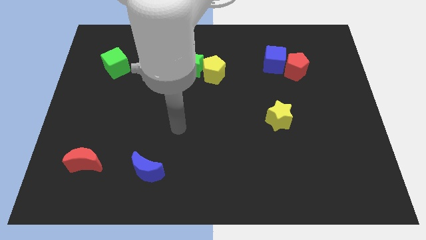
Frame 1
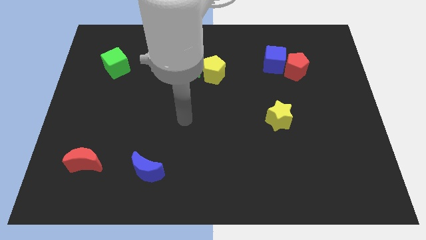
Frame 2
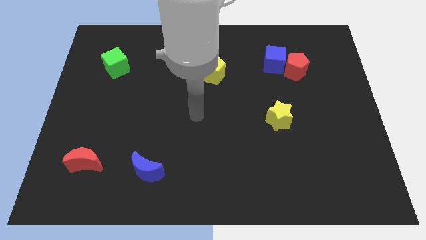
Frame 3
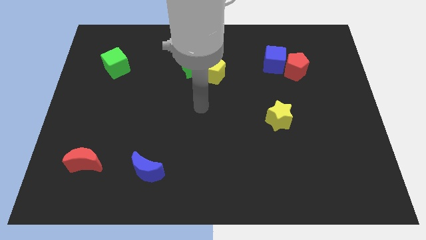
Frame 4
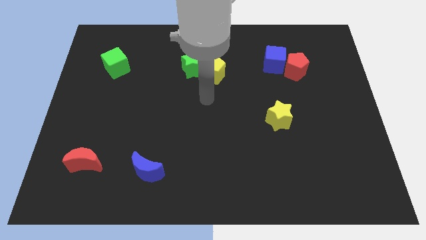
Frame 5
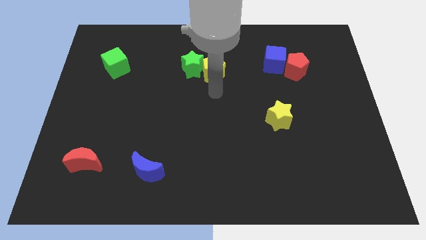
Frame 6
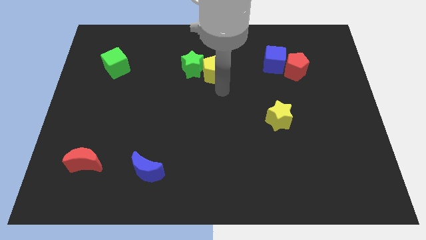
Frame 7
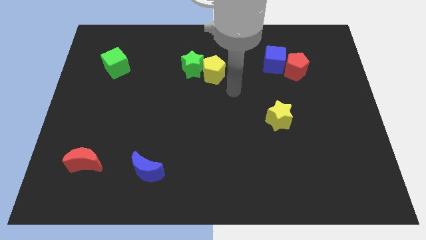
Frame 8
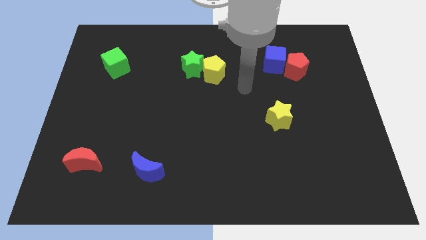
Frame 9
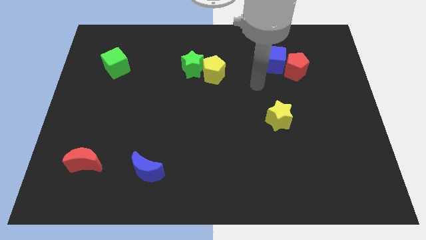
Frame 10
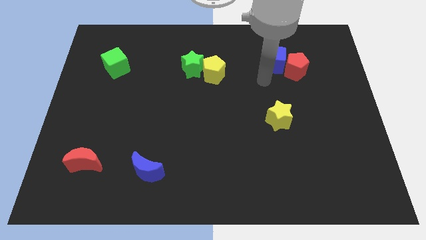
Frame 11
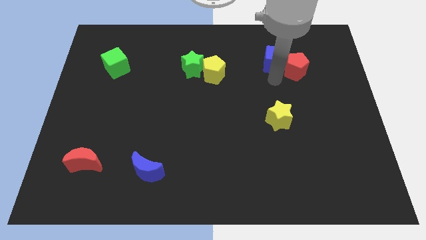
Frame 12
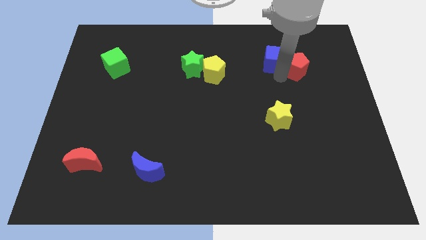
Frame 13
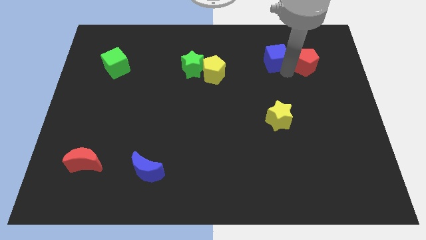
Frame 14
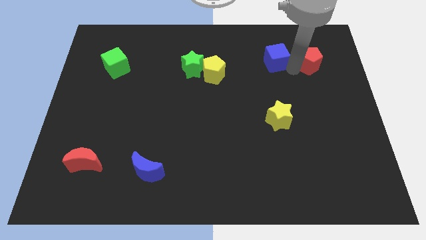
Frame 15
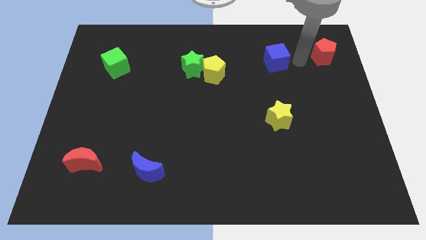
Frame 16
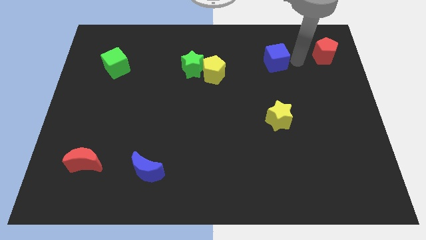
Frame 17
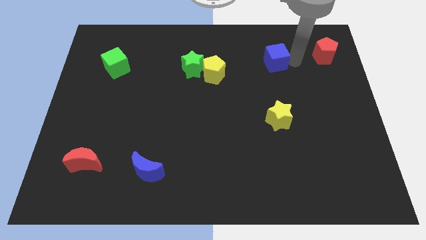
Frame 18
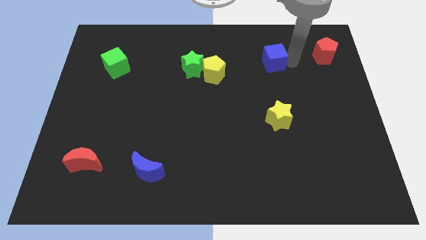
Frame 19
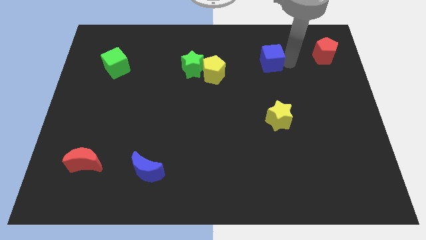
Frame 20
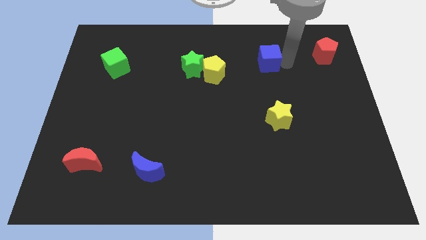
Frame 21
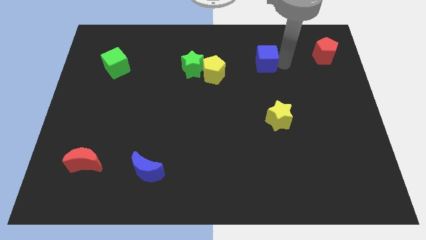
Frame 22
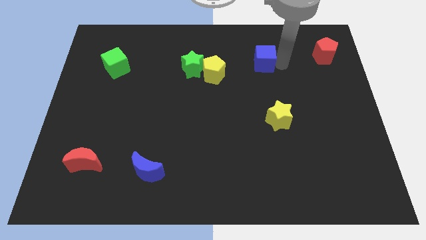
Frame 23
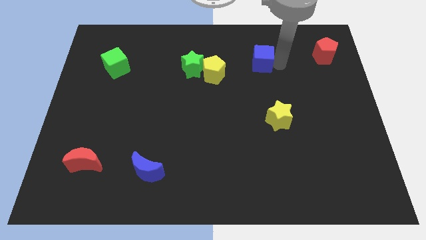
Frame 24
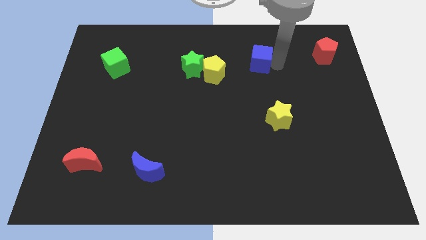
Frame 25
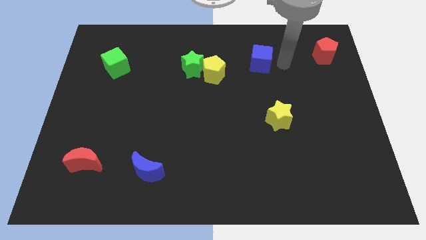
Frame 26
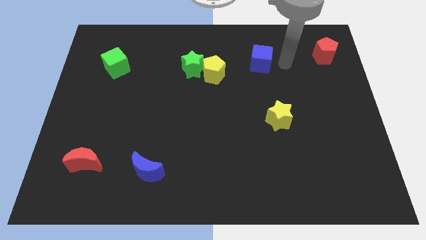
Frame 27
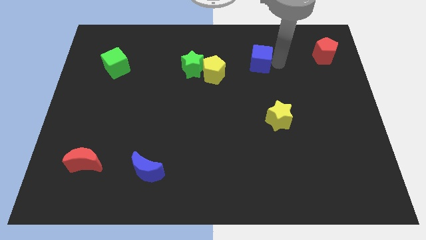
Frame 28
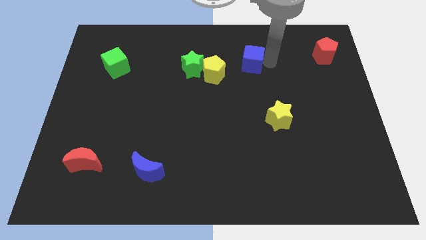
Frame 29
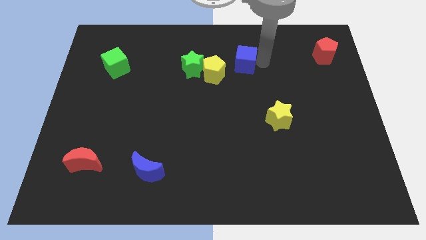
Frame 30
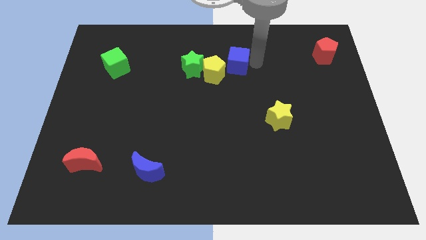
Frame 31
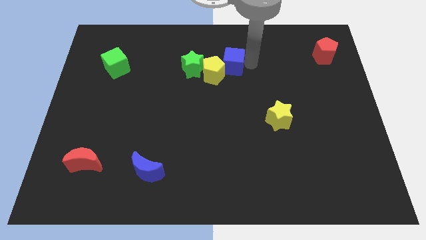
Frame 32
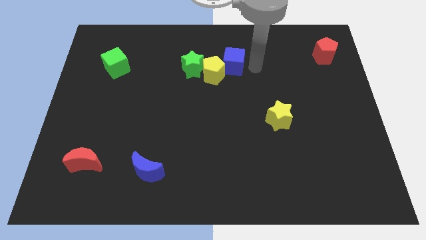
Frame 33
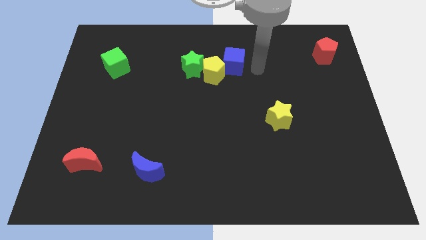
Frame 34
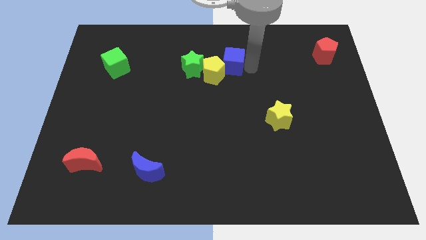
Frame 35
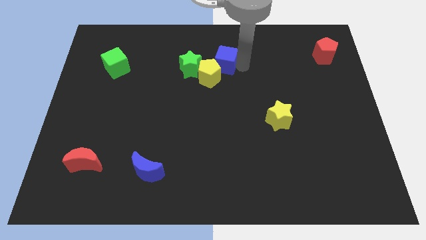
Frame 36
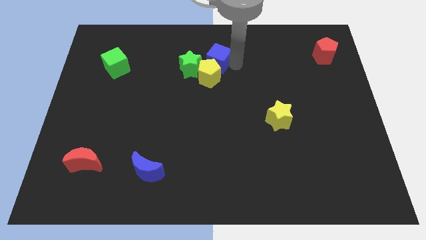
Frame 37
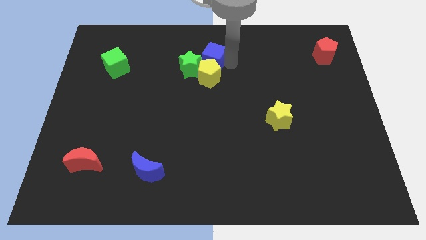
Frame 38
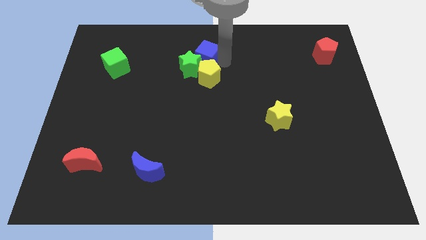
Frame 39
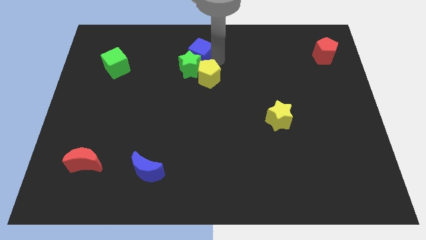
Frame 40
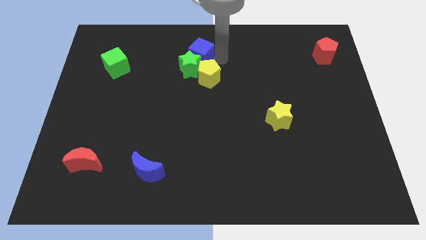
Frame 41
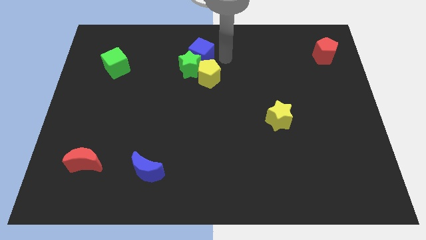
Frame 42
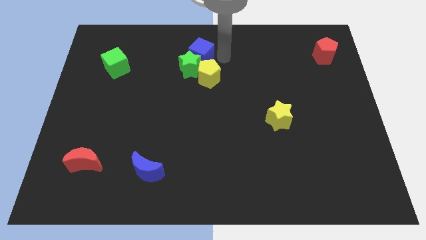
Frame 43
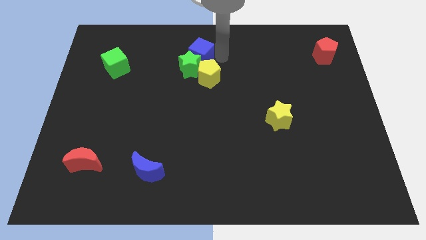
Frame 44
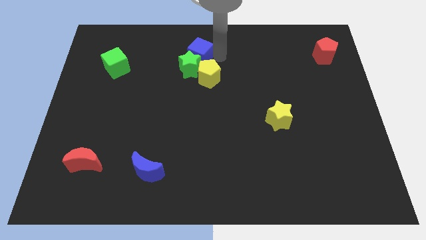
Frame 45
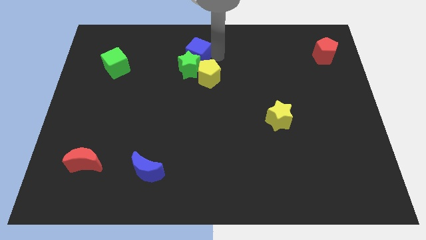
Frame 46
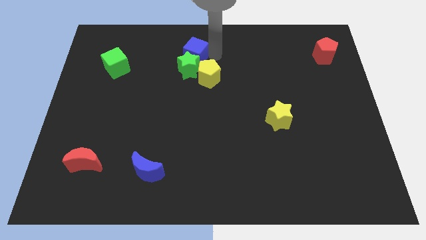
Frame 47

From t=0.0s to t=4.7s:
push the blue cube to the left

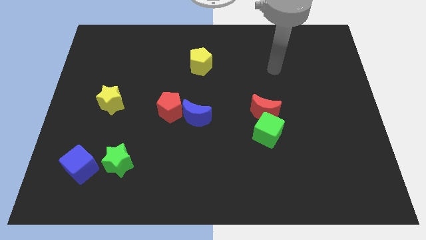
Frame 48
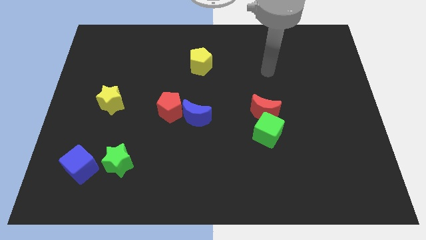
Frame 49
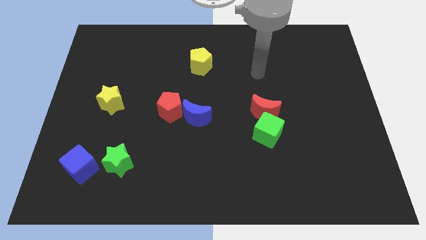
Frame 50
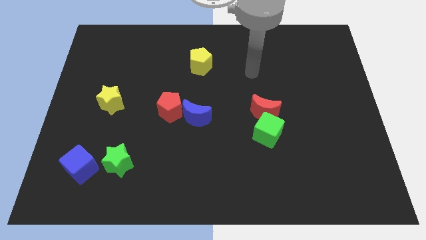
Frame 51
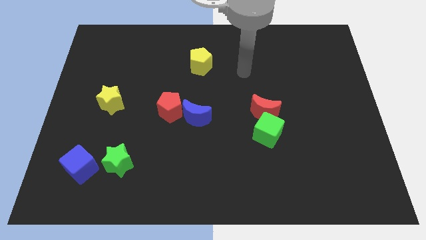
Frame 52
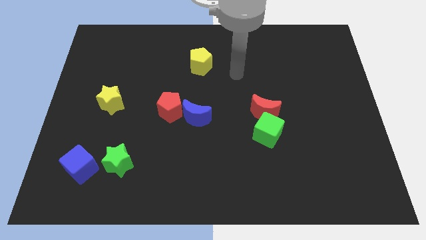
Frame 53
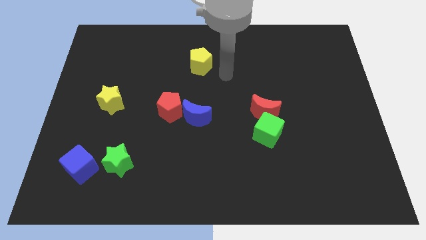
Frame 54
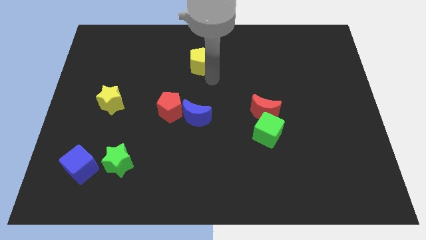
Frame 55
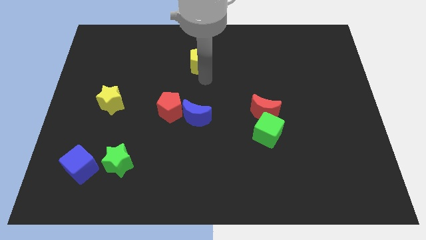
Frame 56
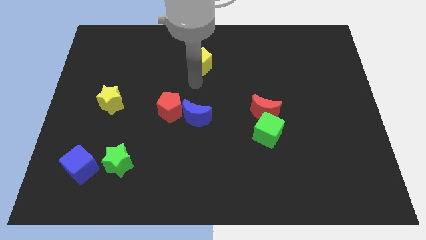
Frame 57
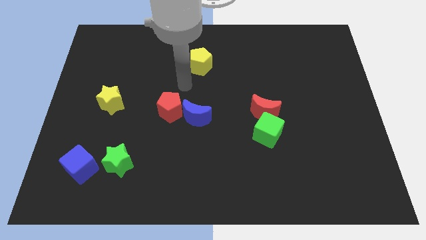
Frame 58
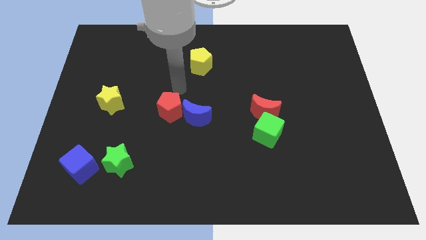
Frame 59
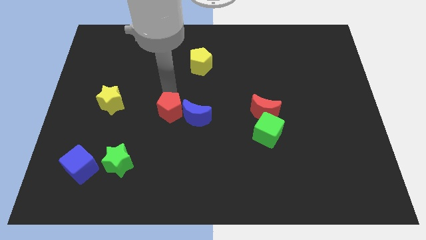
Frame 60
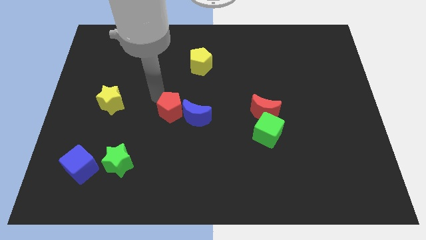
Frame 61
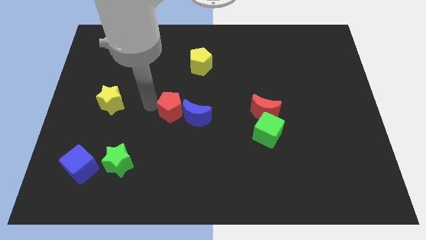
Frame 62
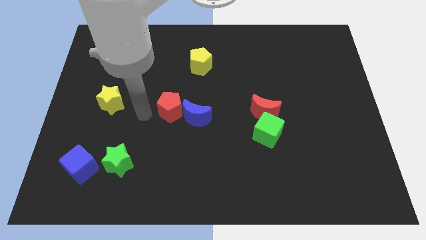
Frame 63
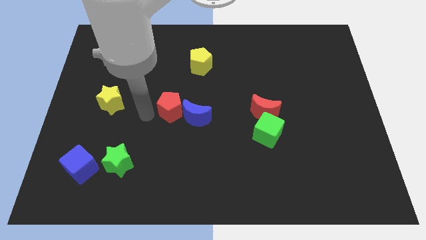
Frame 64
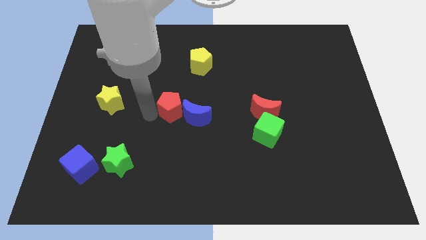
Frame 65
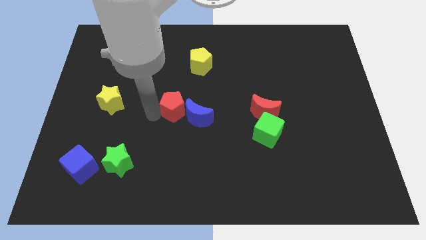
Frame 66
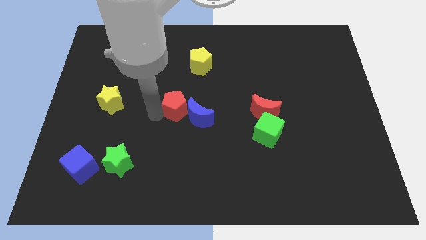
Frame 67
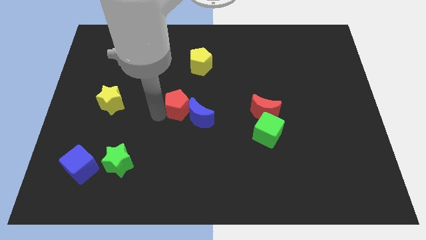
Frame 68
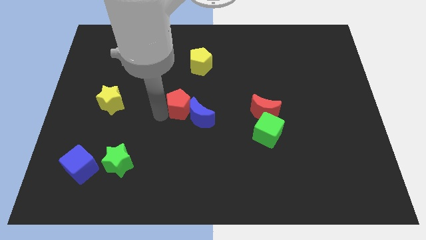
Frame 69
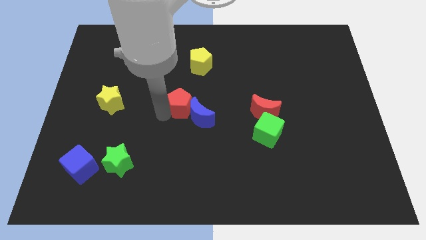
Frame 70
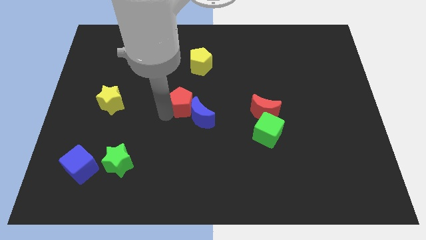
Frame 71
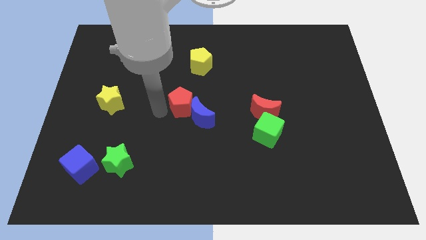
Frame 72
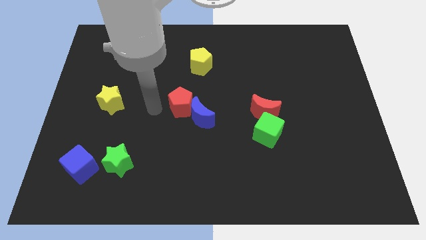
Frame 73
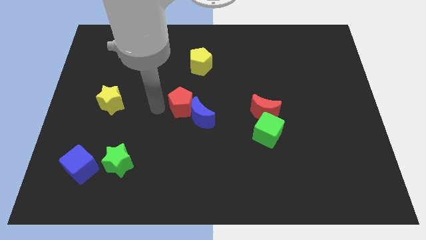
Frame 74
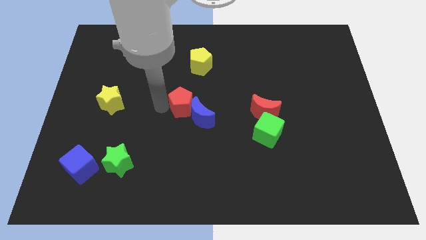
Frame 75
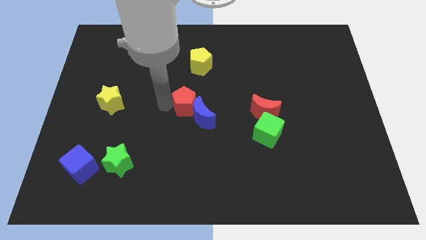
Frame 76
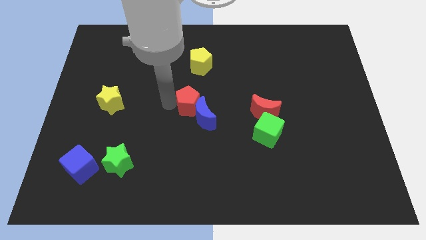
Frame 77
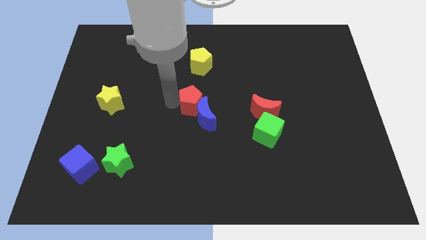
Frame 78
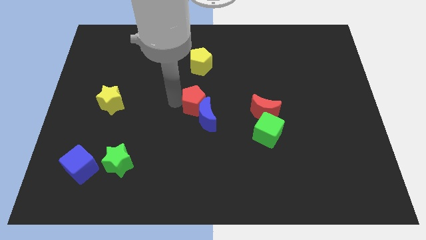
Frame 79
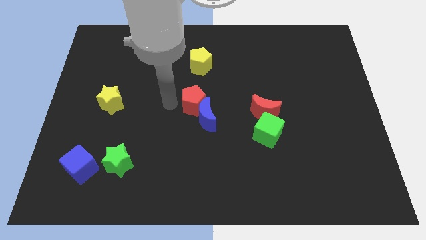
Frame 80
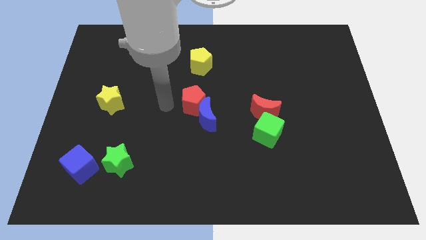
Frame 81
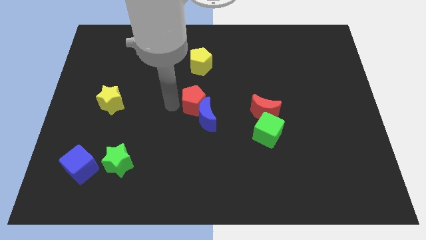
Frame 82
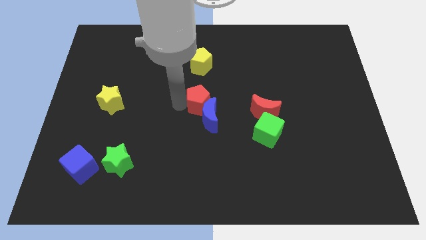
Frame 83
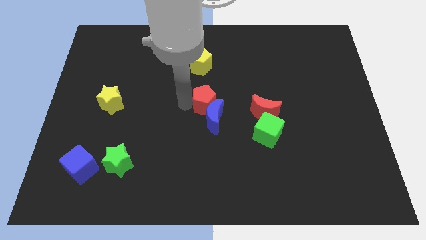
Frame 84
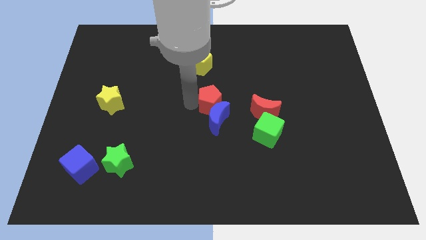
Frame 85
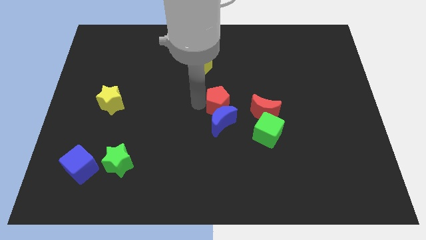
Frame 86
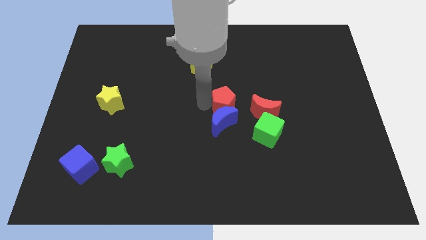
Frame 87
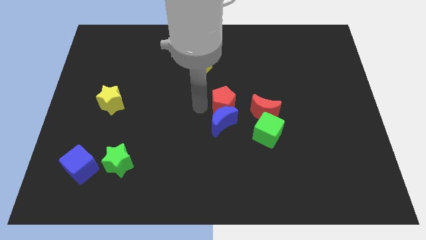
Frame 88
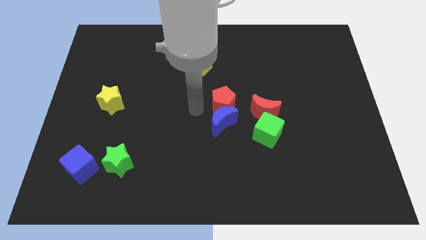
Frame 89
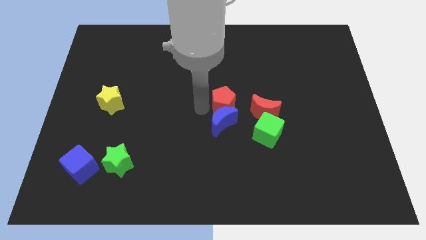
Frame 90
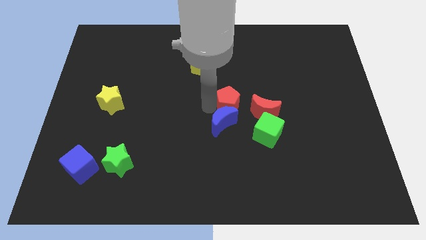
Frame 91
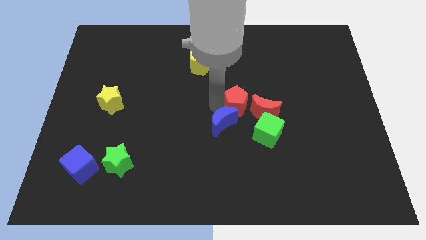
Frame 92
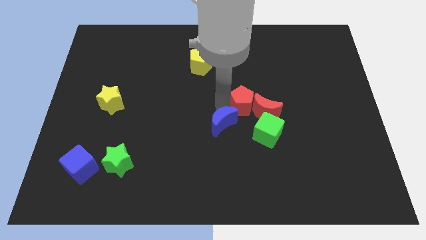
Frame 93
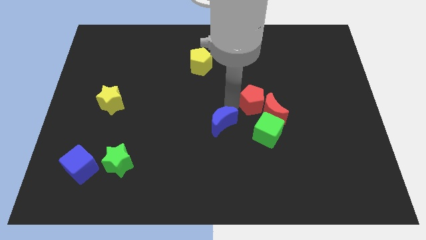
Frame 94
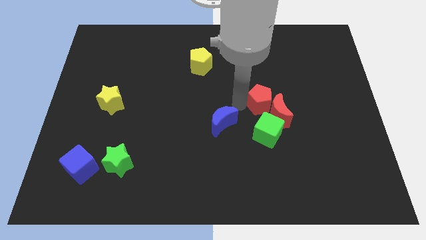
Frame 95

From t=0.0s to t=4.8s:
move the red pentagon right
